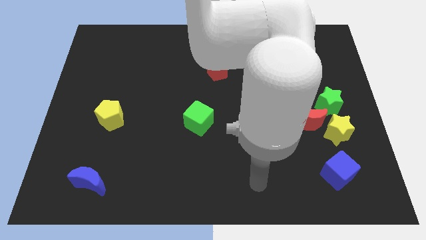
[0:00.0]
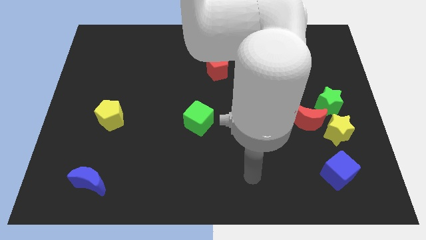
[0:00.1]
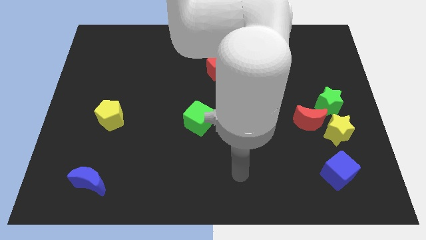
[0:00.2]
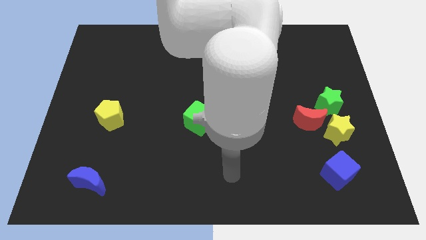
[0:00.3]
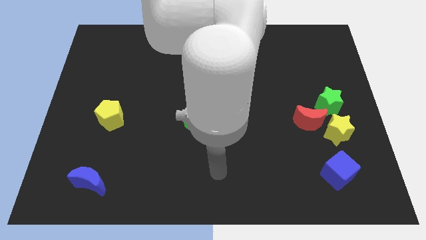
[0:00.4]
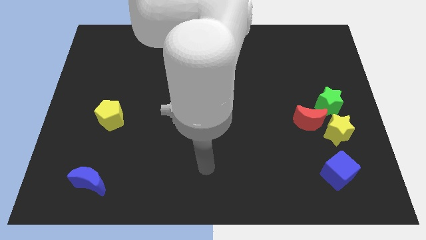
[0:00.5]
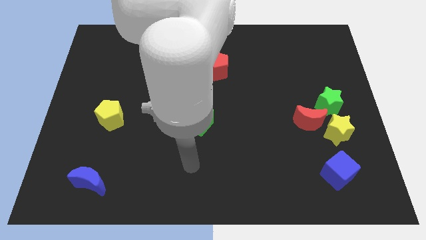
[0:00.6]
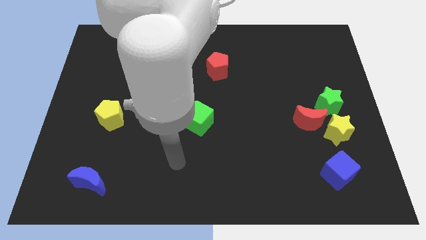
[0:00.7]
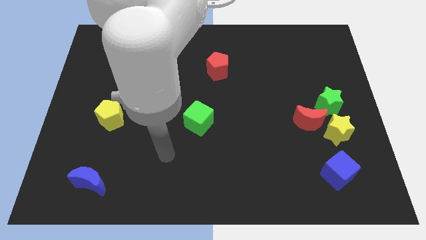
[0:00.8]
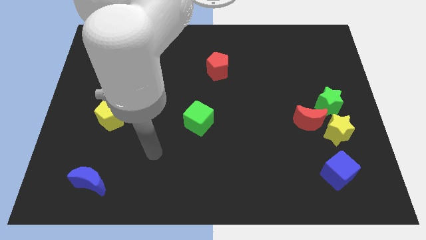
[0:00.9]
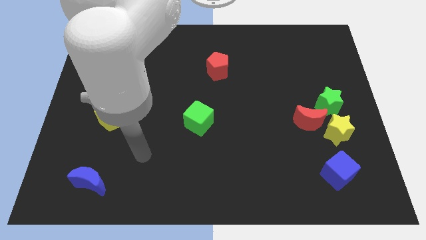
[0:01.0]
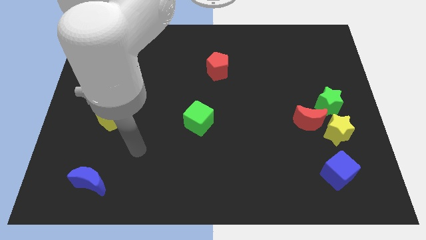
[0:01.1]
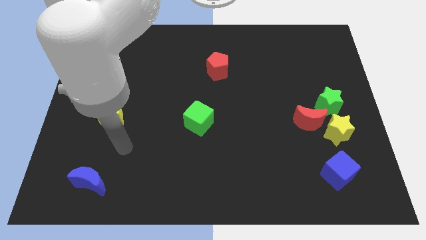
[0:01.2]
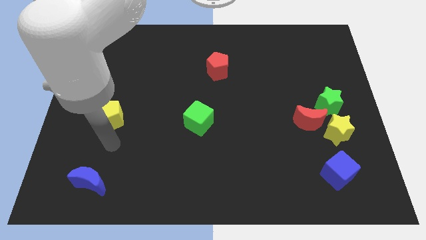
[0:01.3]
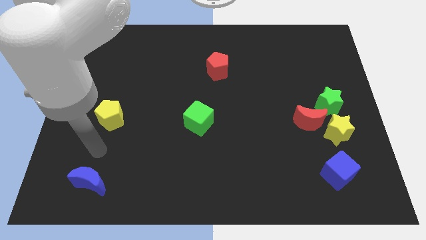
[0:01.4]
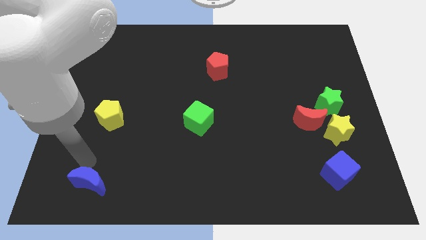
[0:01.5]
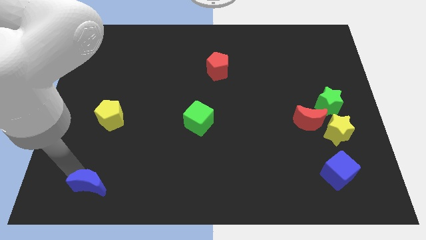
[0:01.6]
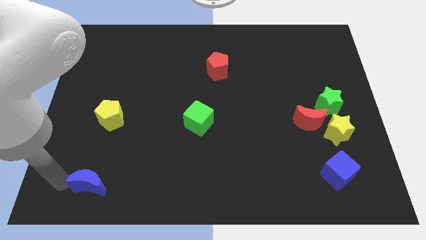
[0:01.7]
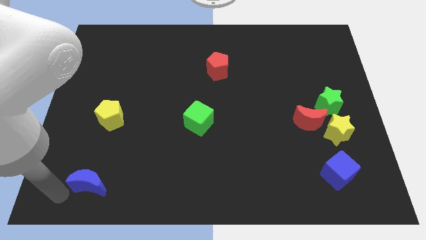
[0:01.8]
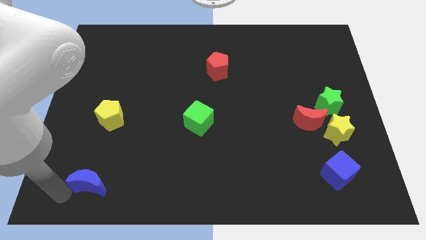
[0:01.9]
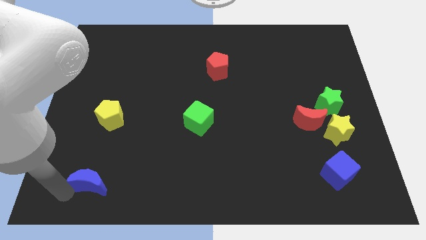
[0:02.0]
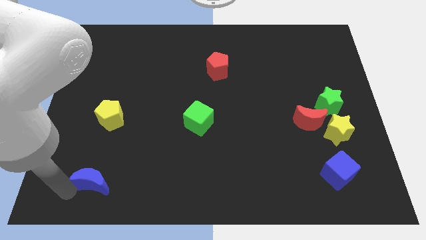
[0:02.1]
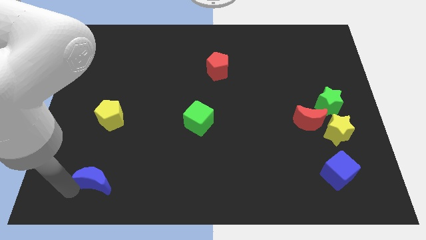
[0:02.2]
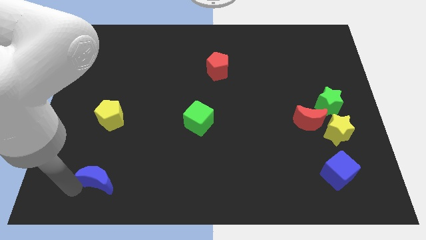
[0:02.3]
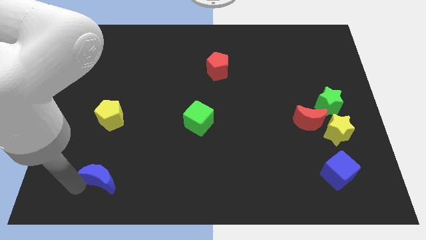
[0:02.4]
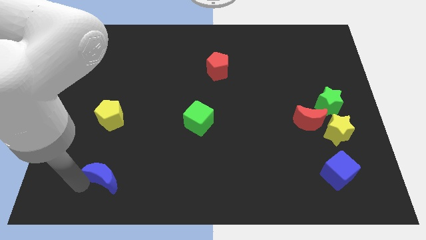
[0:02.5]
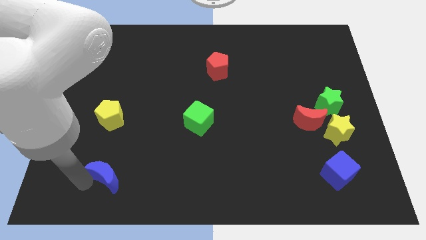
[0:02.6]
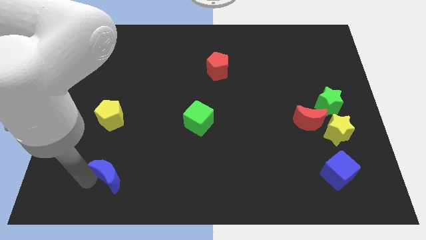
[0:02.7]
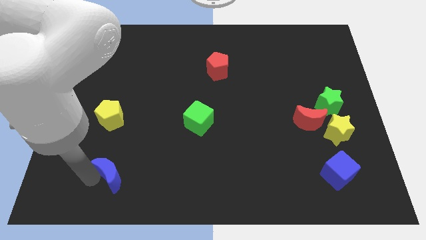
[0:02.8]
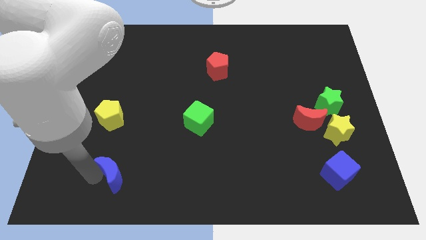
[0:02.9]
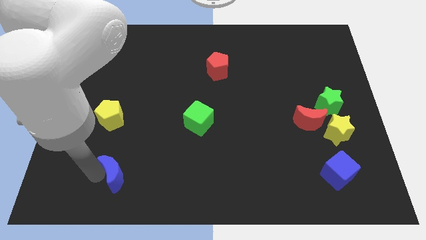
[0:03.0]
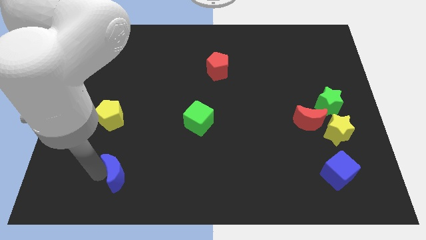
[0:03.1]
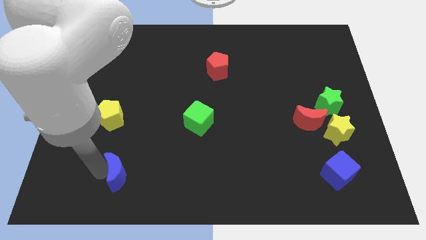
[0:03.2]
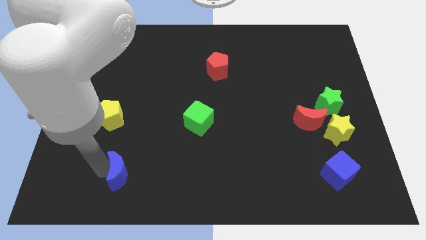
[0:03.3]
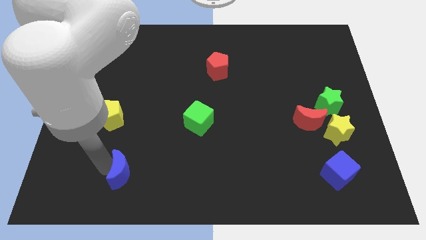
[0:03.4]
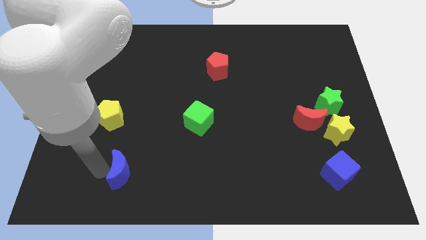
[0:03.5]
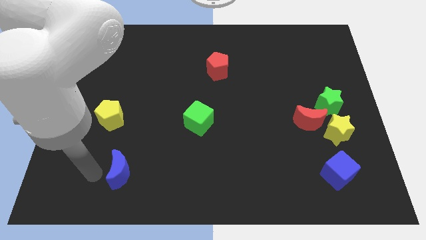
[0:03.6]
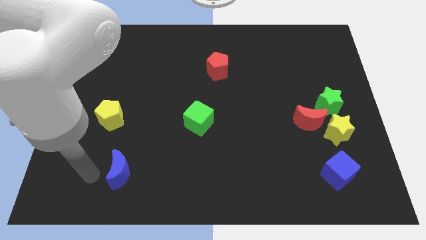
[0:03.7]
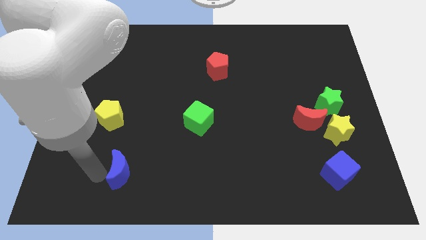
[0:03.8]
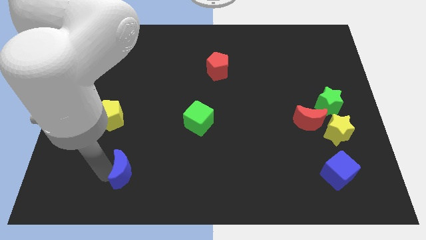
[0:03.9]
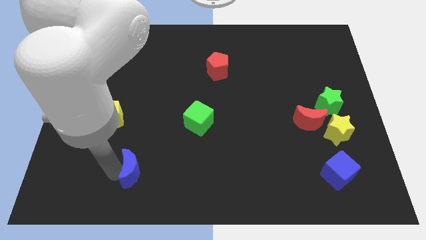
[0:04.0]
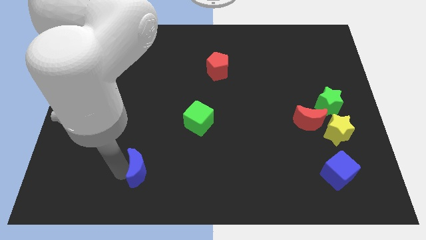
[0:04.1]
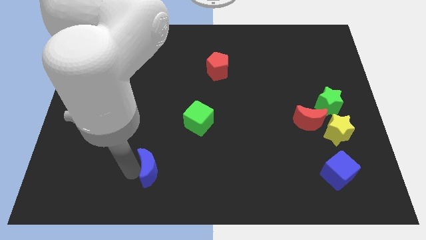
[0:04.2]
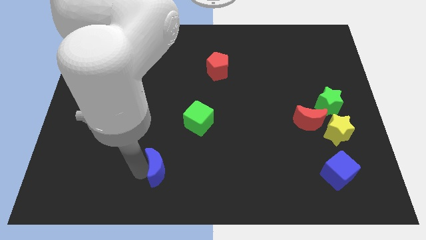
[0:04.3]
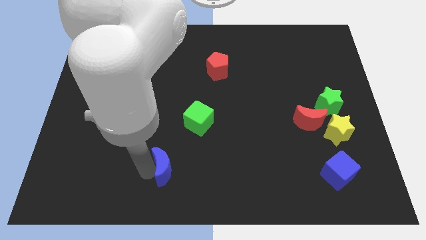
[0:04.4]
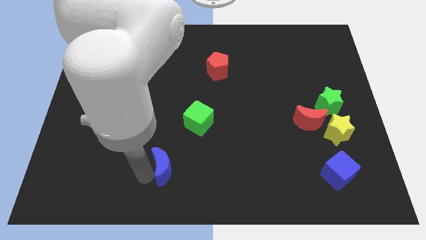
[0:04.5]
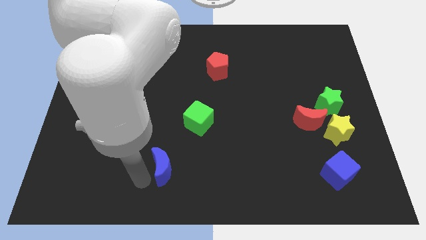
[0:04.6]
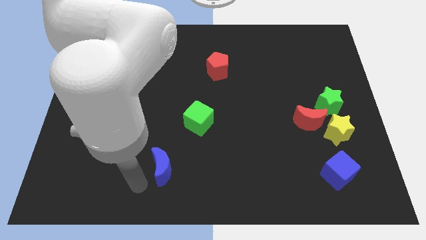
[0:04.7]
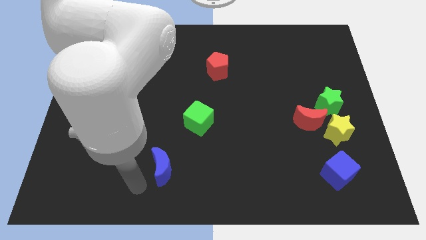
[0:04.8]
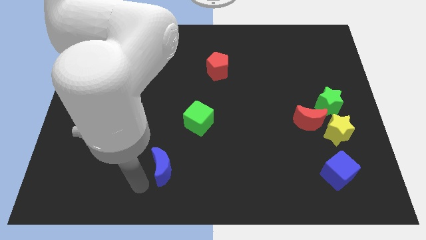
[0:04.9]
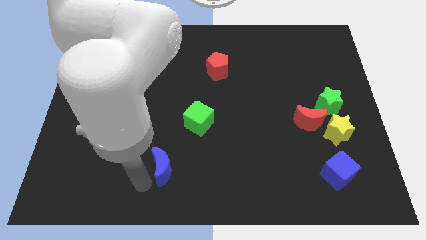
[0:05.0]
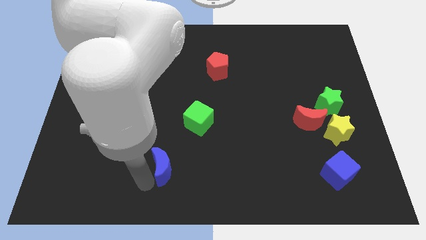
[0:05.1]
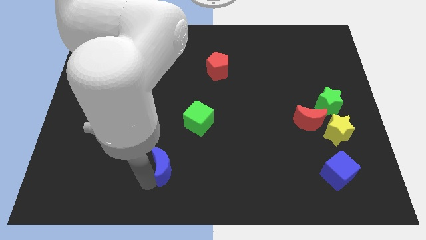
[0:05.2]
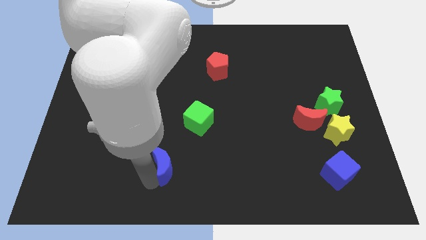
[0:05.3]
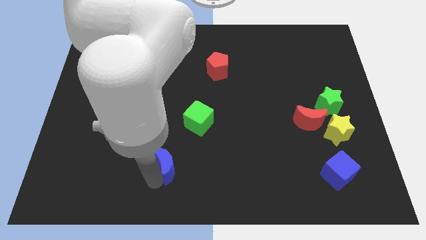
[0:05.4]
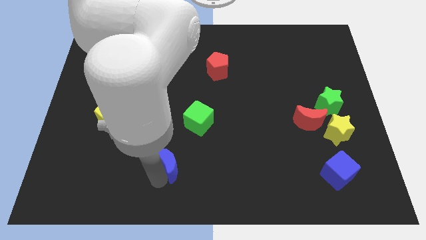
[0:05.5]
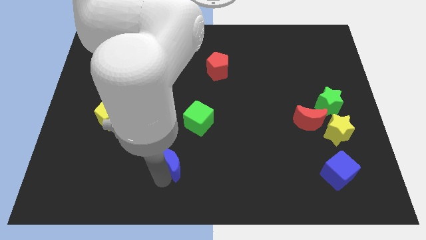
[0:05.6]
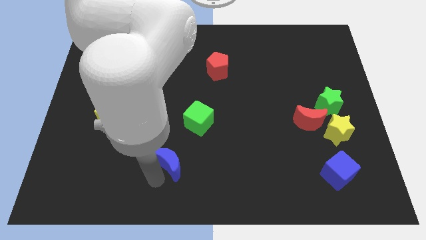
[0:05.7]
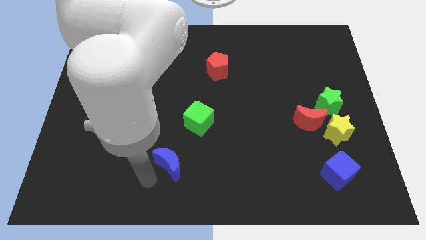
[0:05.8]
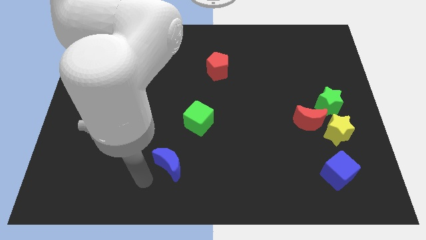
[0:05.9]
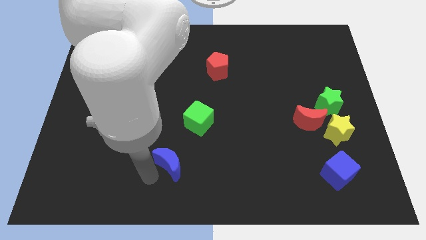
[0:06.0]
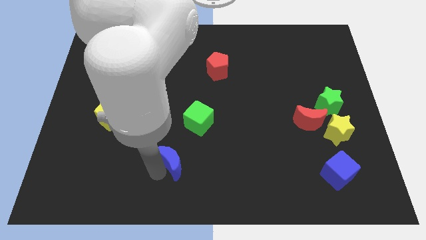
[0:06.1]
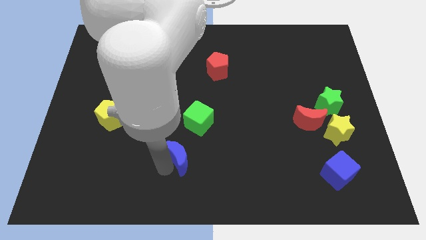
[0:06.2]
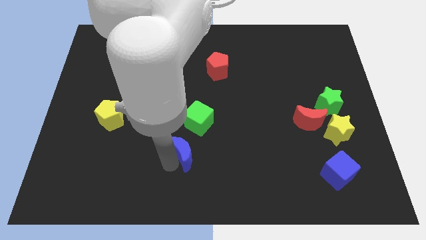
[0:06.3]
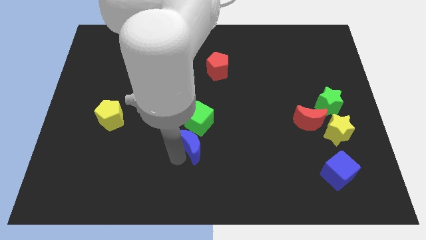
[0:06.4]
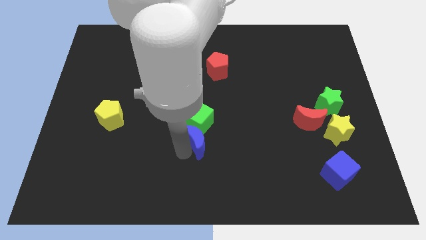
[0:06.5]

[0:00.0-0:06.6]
push the blue moon diagonally down and to the right of the green cube

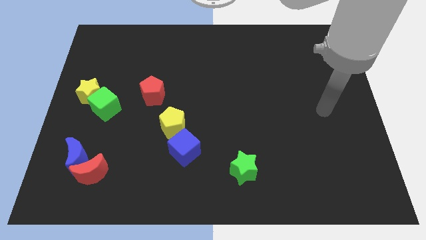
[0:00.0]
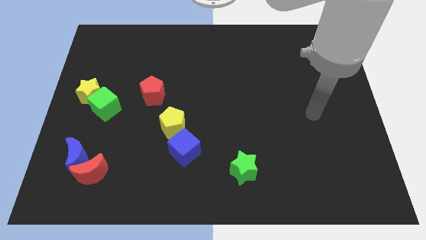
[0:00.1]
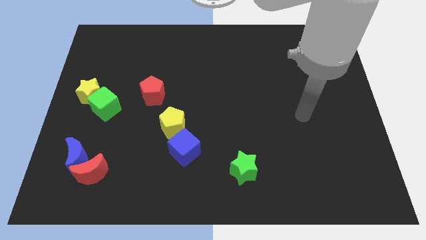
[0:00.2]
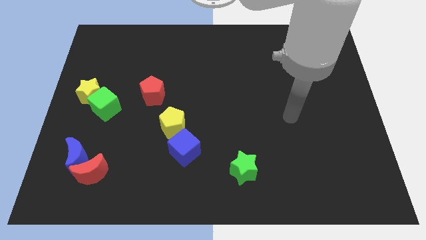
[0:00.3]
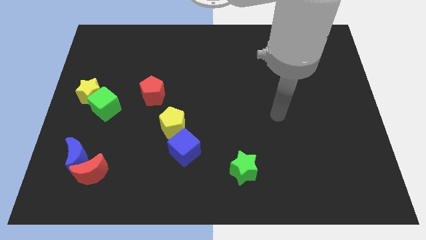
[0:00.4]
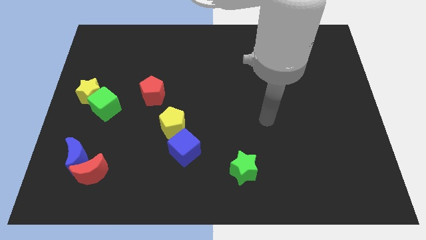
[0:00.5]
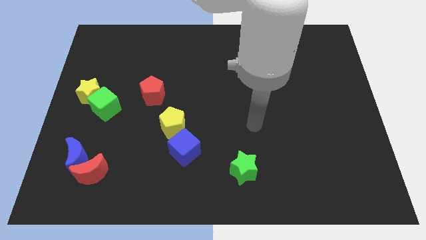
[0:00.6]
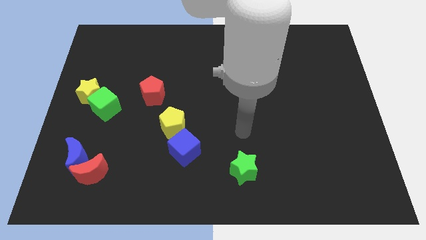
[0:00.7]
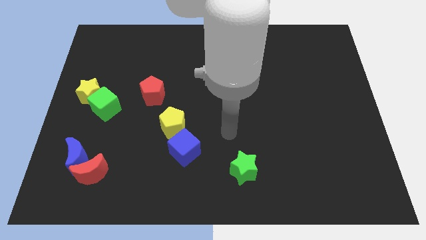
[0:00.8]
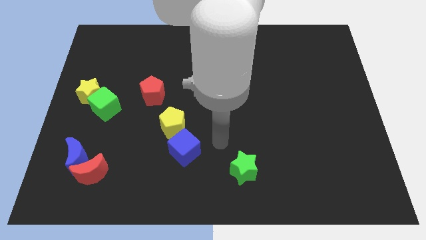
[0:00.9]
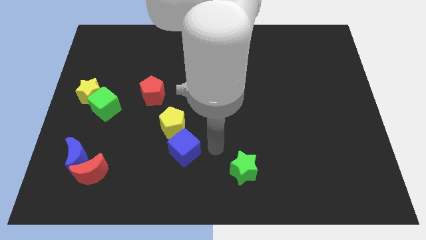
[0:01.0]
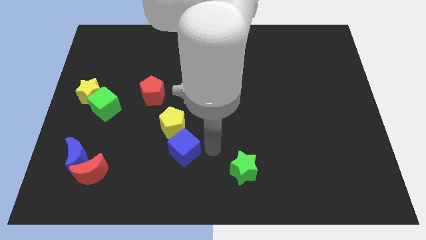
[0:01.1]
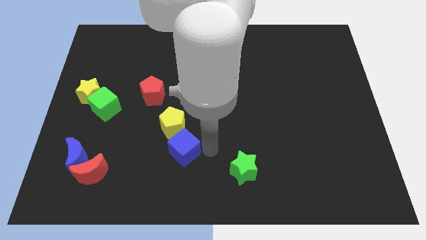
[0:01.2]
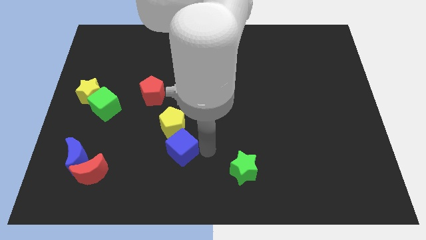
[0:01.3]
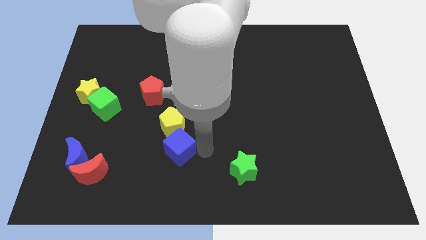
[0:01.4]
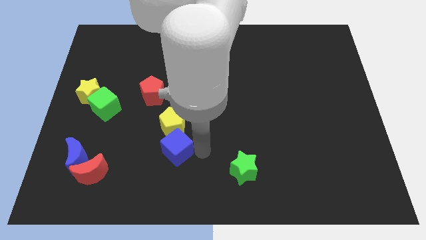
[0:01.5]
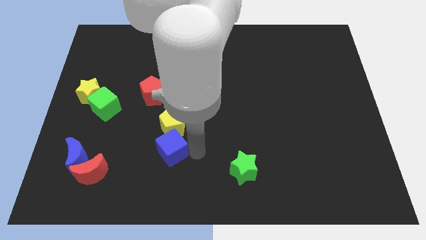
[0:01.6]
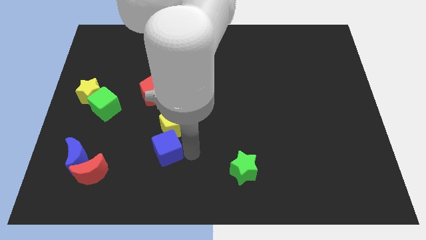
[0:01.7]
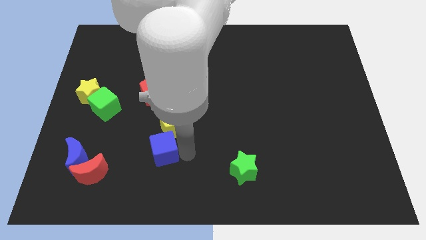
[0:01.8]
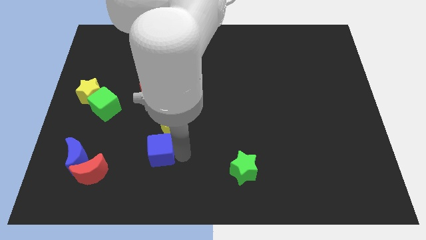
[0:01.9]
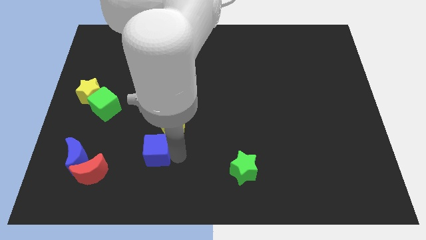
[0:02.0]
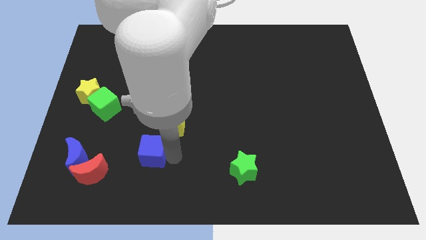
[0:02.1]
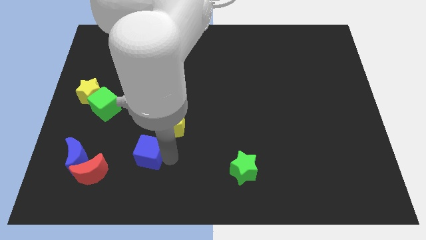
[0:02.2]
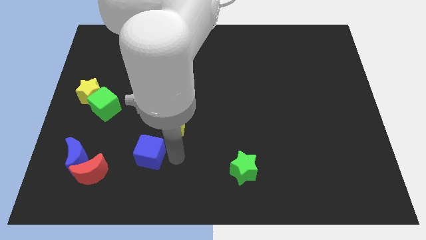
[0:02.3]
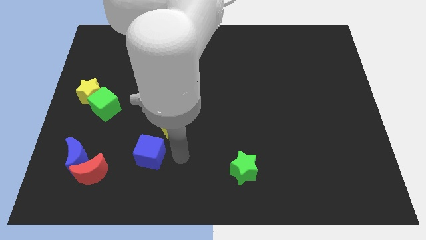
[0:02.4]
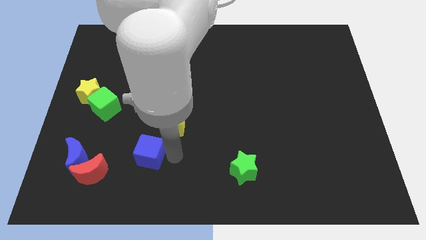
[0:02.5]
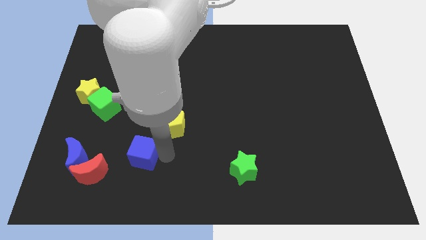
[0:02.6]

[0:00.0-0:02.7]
move the blue cube diagonally up and to the right of the red moon
